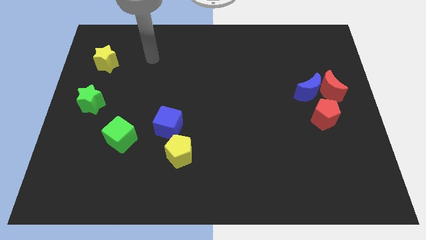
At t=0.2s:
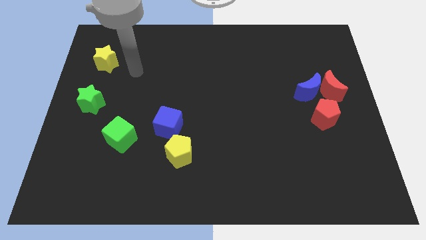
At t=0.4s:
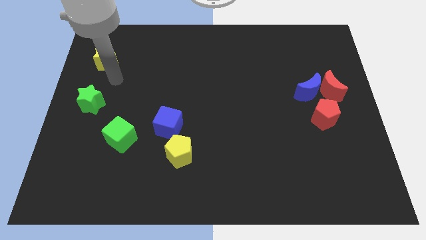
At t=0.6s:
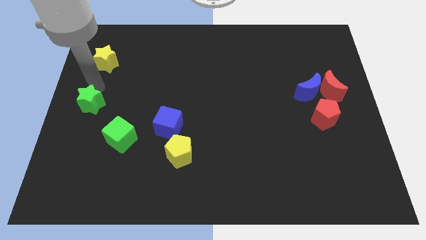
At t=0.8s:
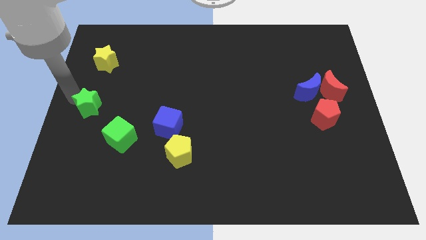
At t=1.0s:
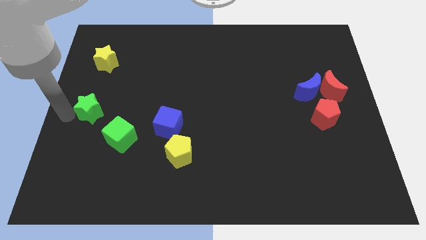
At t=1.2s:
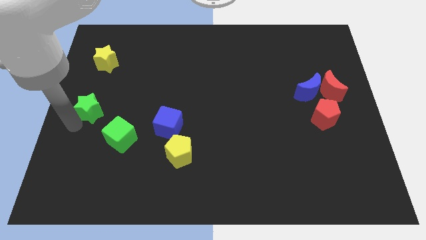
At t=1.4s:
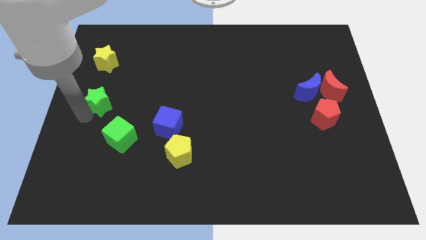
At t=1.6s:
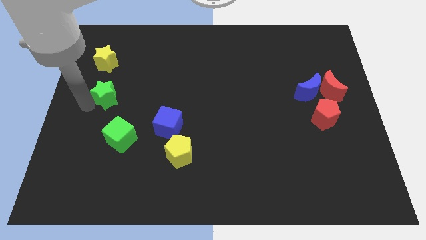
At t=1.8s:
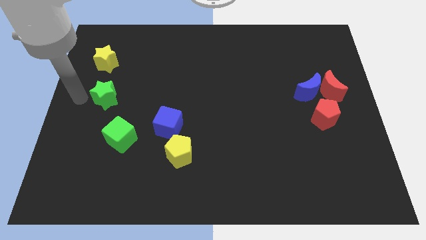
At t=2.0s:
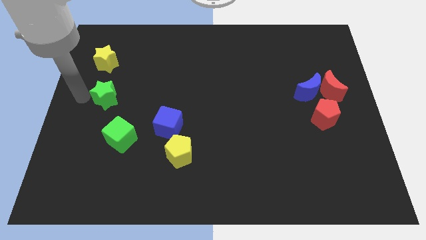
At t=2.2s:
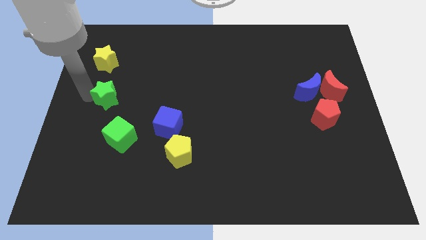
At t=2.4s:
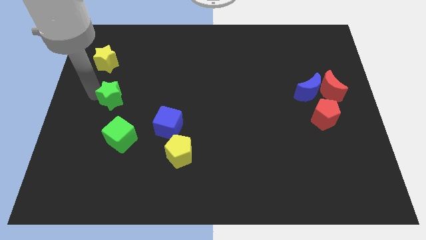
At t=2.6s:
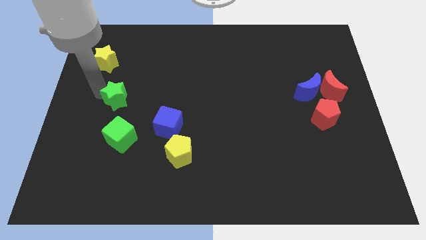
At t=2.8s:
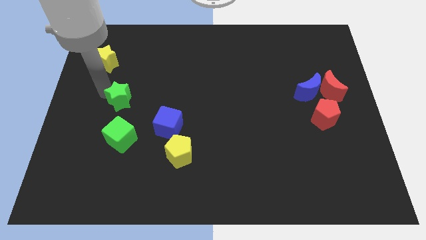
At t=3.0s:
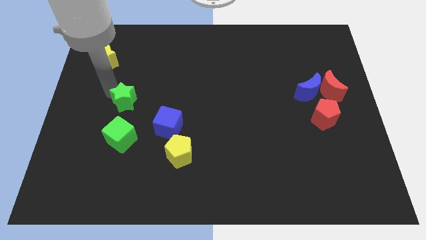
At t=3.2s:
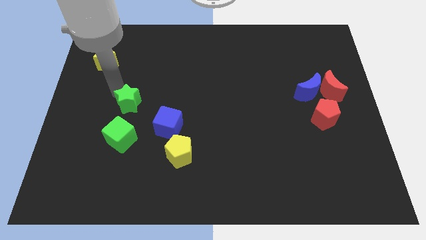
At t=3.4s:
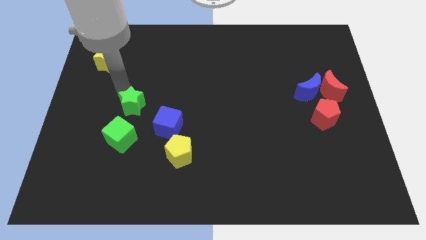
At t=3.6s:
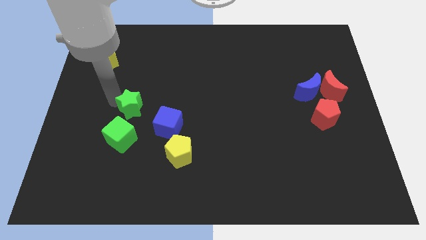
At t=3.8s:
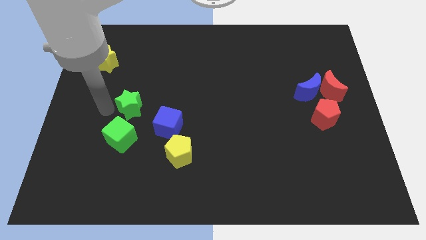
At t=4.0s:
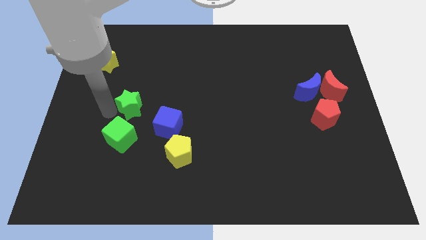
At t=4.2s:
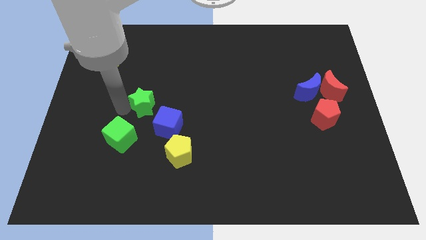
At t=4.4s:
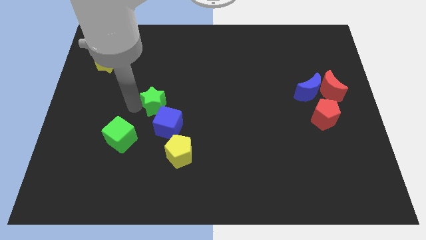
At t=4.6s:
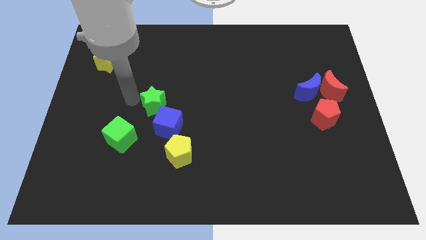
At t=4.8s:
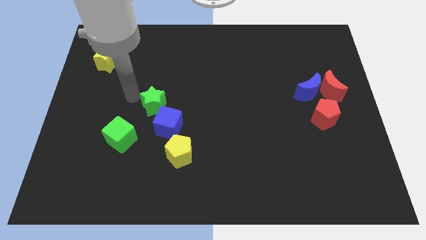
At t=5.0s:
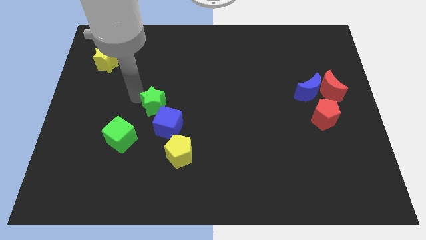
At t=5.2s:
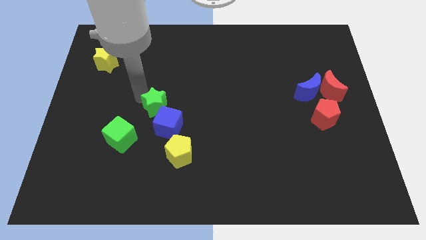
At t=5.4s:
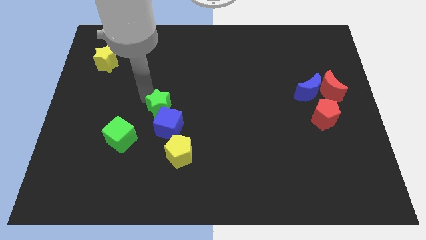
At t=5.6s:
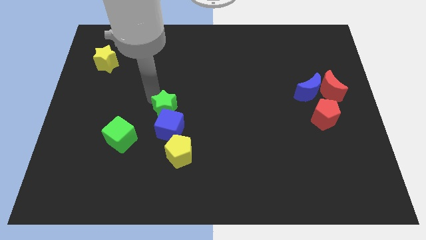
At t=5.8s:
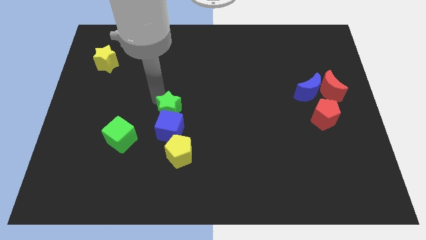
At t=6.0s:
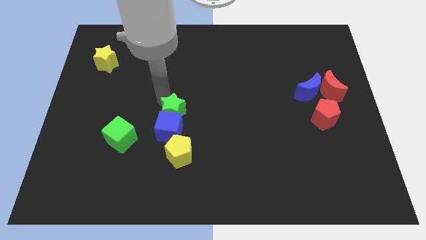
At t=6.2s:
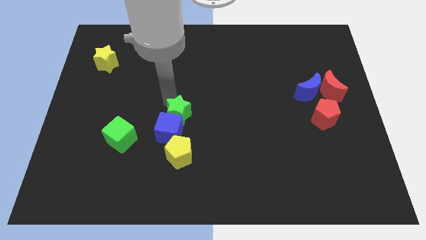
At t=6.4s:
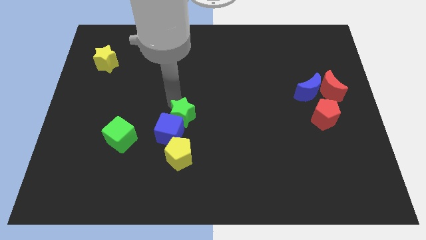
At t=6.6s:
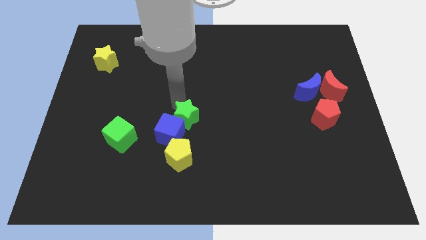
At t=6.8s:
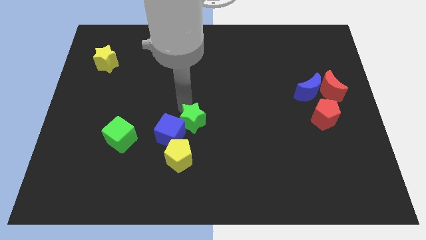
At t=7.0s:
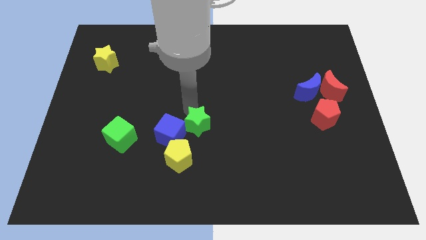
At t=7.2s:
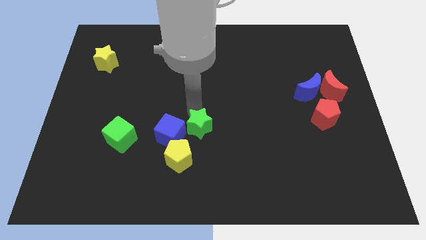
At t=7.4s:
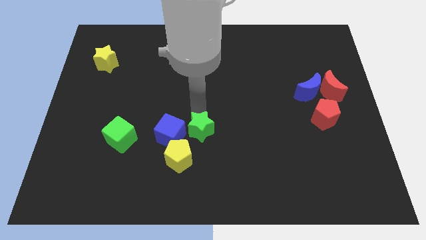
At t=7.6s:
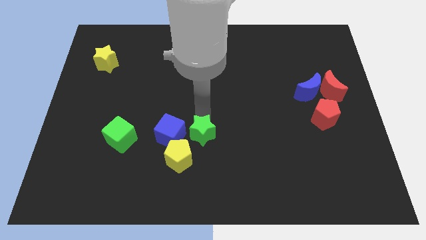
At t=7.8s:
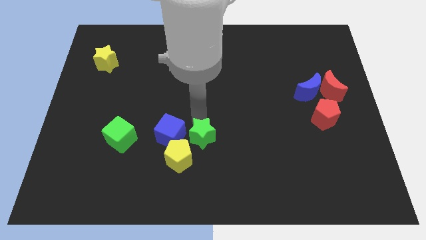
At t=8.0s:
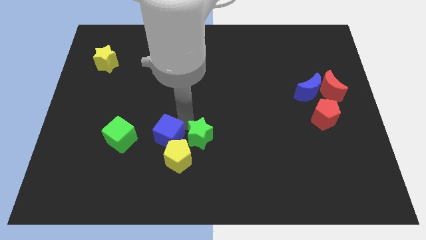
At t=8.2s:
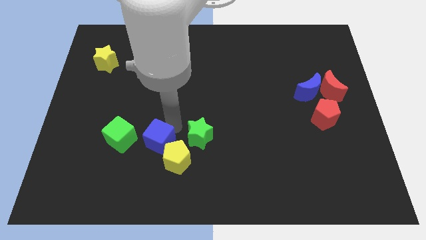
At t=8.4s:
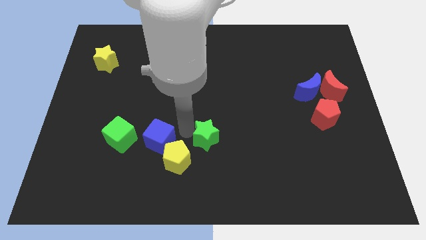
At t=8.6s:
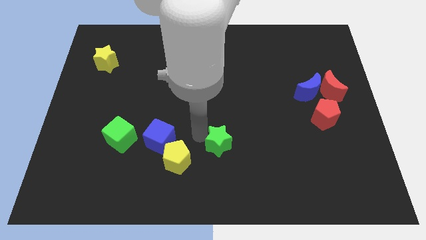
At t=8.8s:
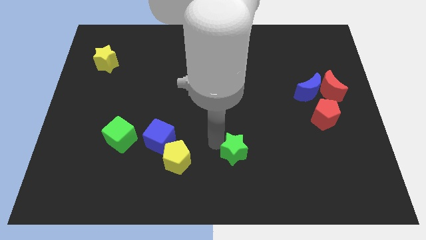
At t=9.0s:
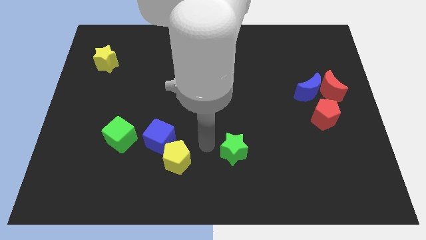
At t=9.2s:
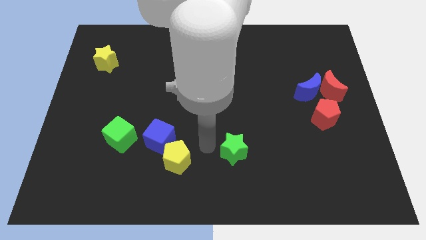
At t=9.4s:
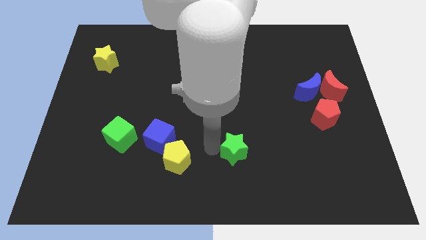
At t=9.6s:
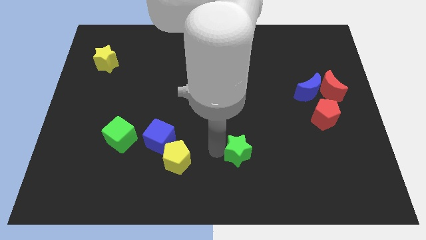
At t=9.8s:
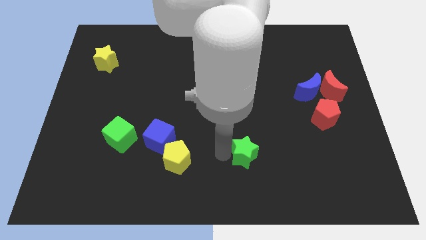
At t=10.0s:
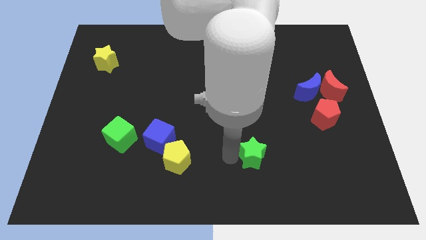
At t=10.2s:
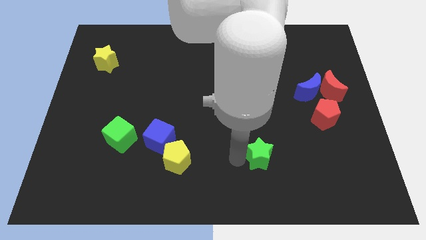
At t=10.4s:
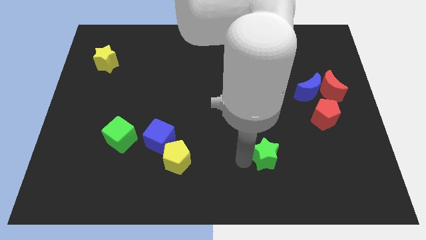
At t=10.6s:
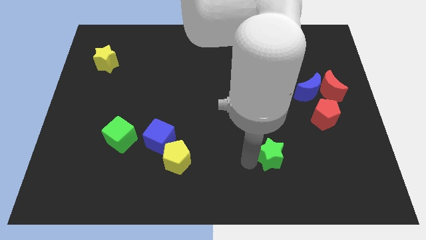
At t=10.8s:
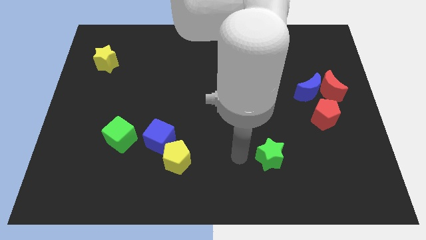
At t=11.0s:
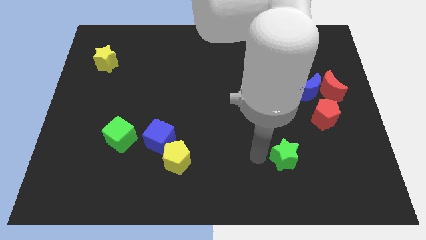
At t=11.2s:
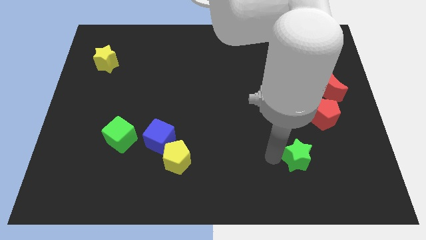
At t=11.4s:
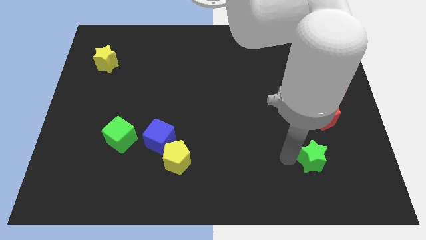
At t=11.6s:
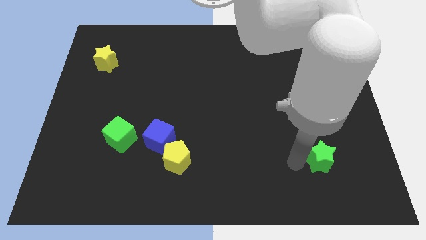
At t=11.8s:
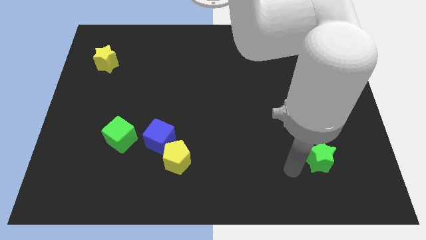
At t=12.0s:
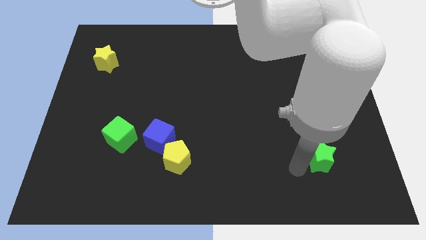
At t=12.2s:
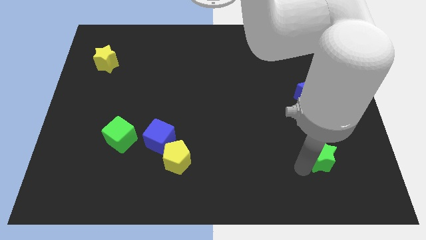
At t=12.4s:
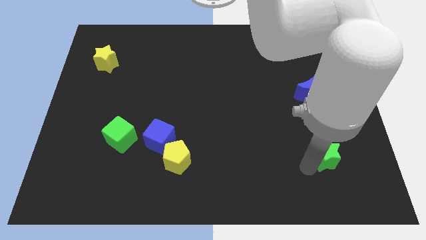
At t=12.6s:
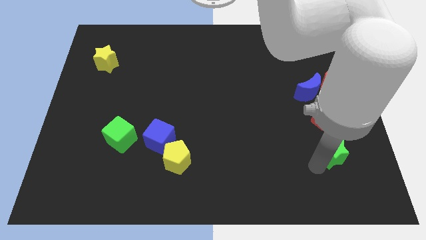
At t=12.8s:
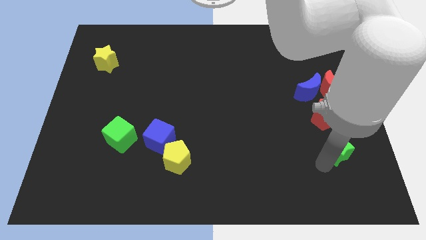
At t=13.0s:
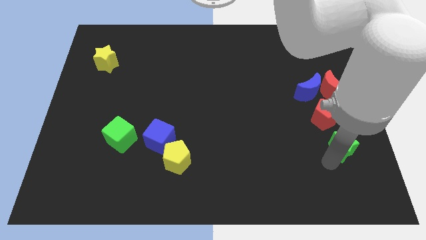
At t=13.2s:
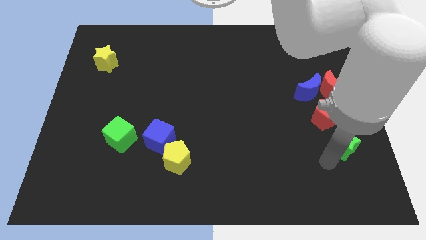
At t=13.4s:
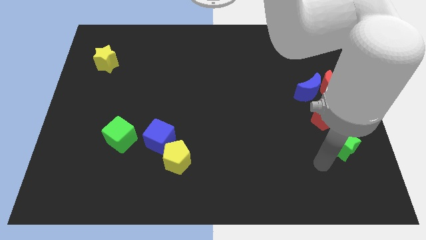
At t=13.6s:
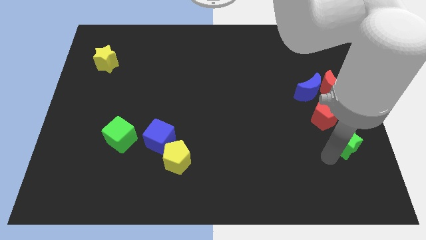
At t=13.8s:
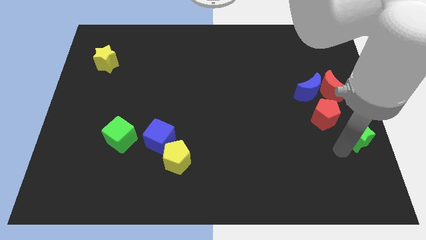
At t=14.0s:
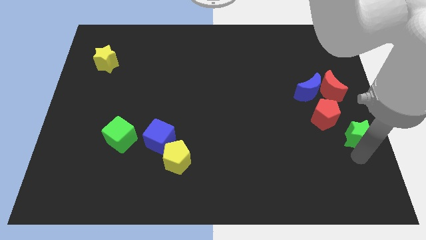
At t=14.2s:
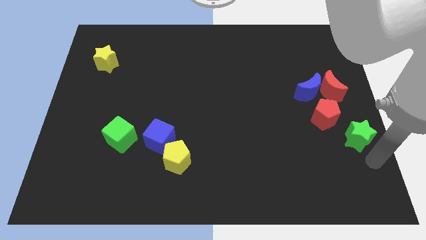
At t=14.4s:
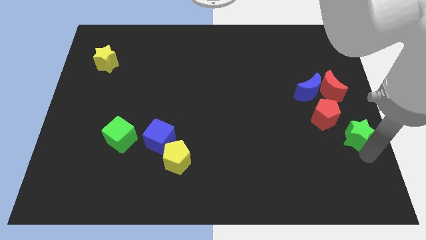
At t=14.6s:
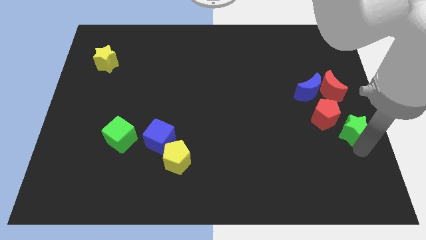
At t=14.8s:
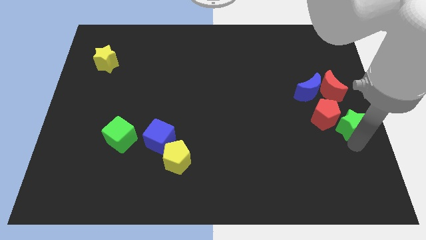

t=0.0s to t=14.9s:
put the green star diagonally down and to the right of the blue moon
